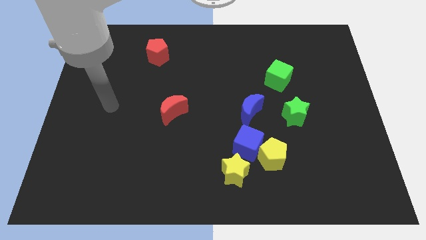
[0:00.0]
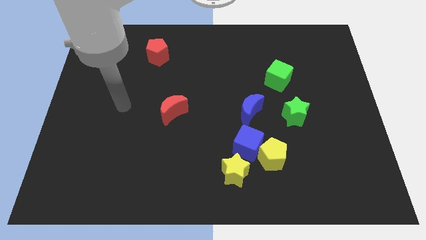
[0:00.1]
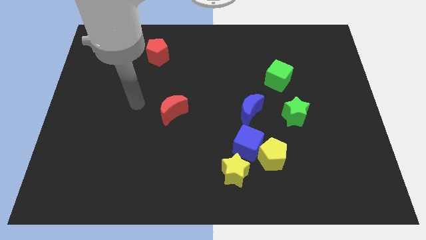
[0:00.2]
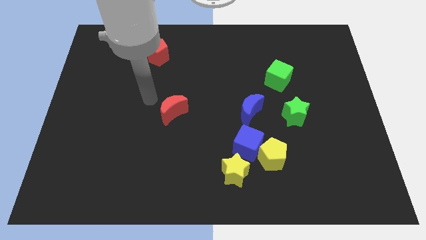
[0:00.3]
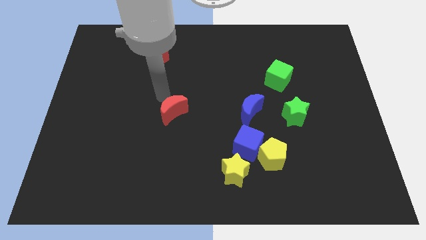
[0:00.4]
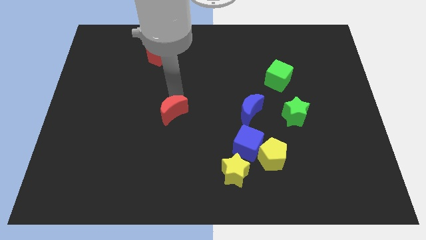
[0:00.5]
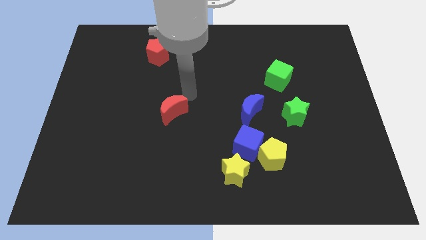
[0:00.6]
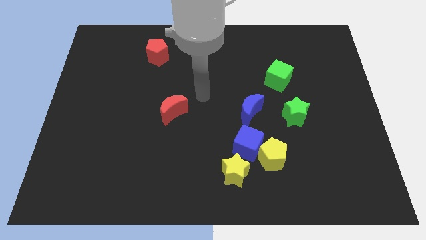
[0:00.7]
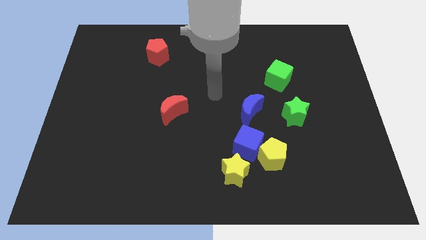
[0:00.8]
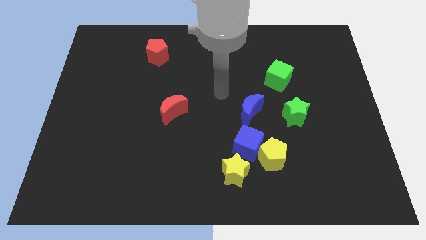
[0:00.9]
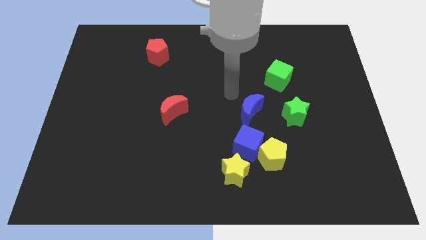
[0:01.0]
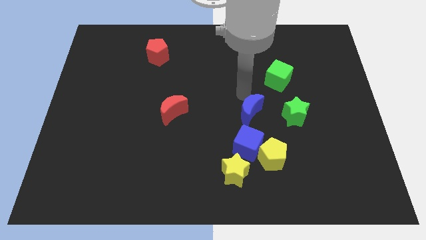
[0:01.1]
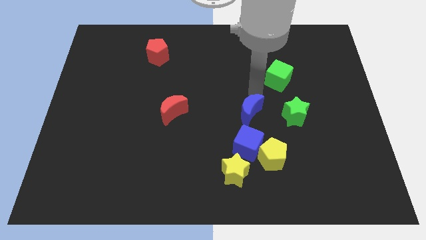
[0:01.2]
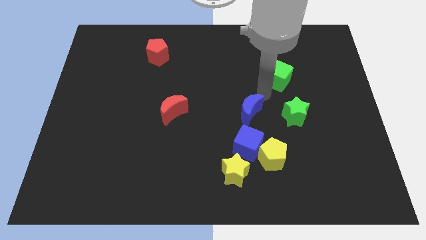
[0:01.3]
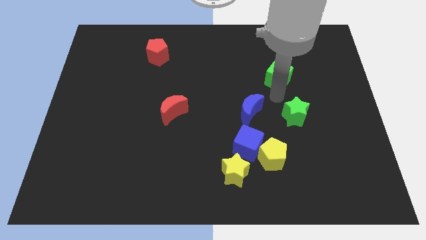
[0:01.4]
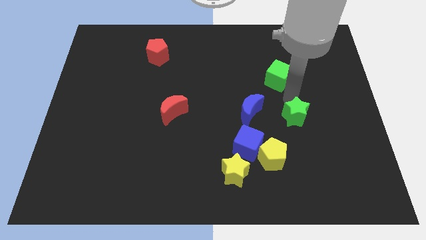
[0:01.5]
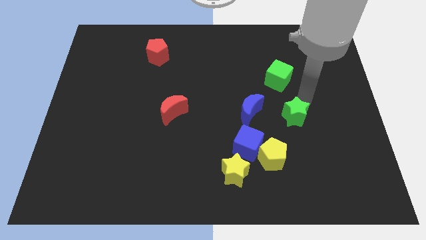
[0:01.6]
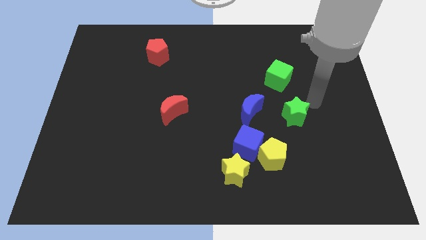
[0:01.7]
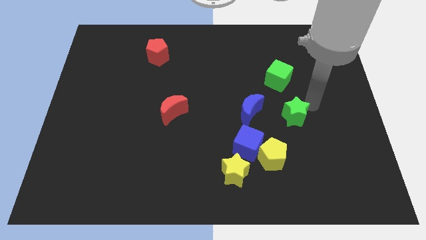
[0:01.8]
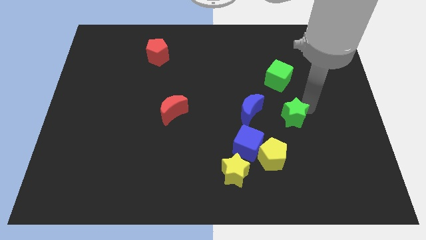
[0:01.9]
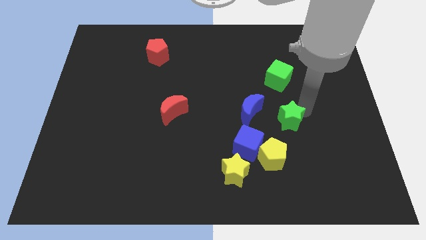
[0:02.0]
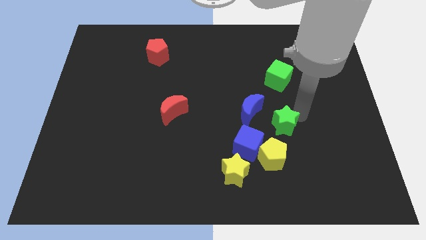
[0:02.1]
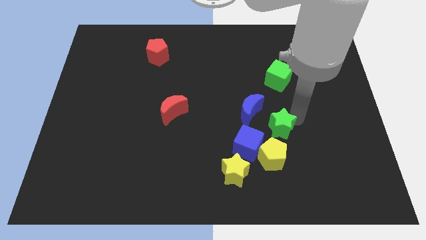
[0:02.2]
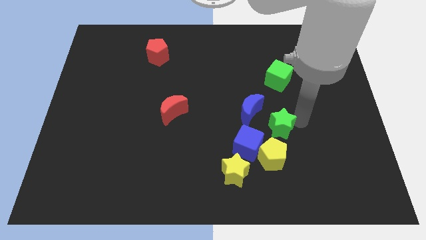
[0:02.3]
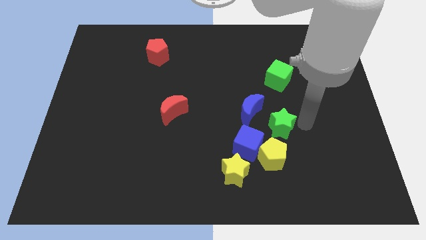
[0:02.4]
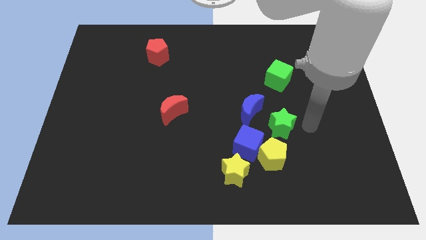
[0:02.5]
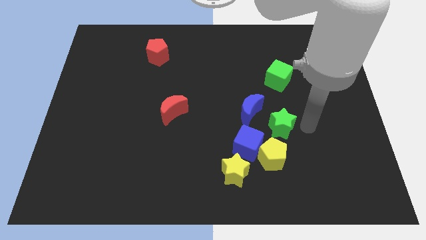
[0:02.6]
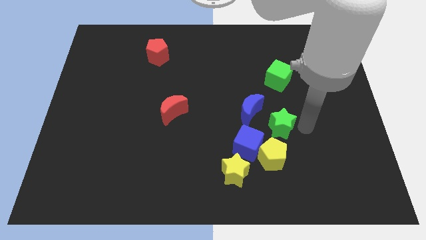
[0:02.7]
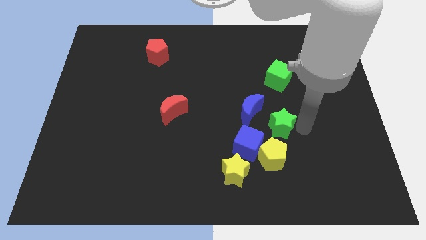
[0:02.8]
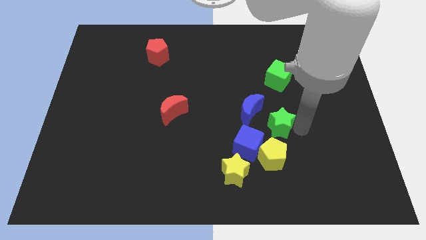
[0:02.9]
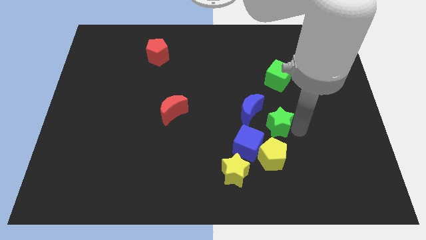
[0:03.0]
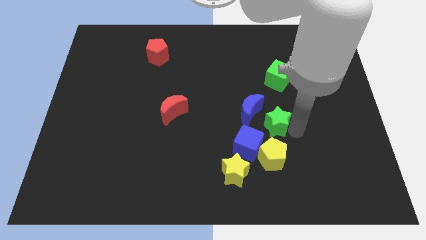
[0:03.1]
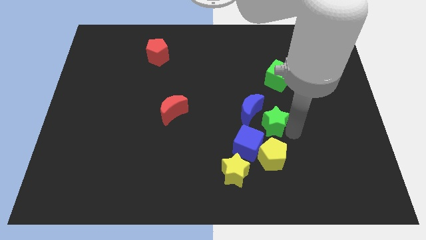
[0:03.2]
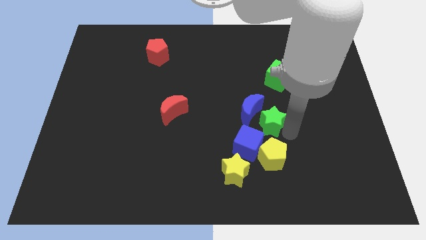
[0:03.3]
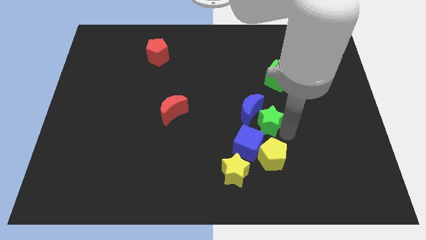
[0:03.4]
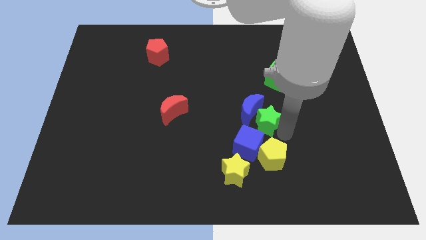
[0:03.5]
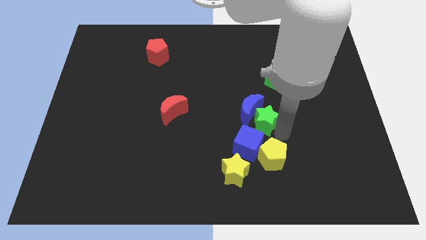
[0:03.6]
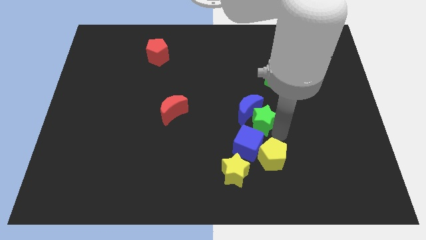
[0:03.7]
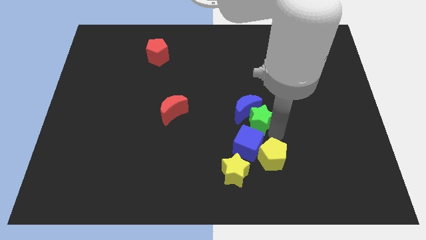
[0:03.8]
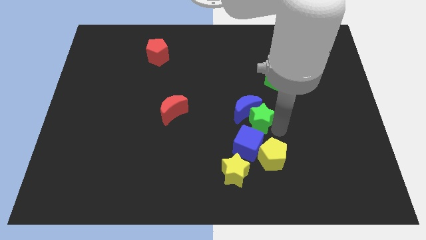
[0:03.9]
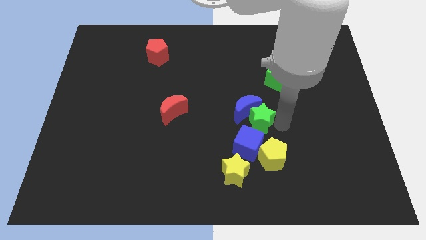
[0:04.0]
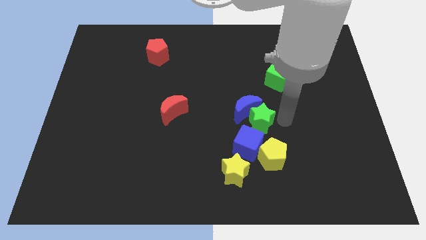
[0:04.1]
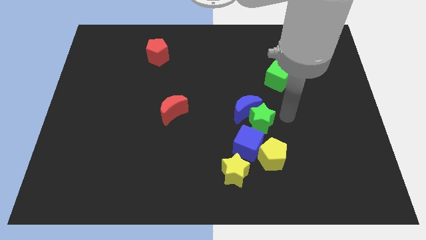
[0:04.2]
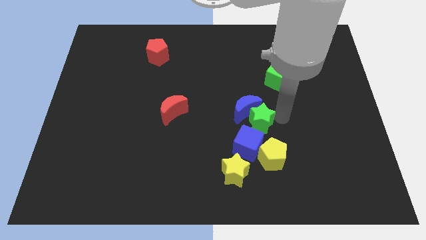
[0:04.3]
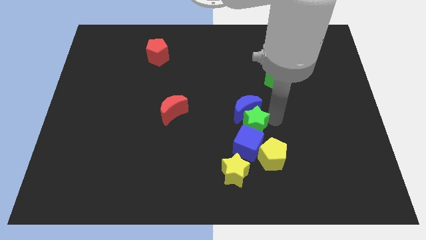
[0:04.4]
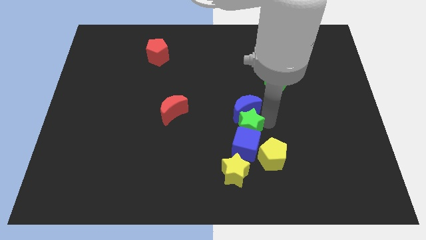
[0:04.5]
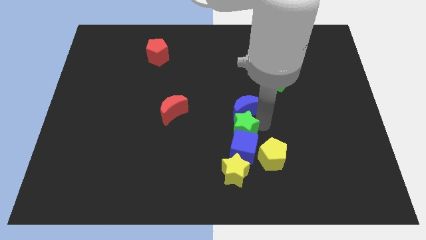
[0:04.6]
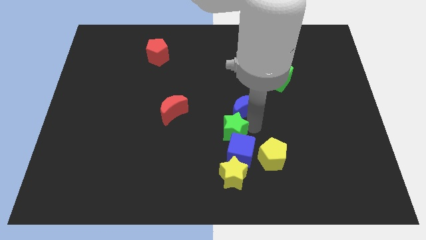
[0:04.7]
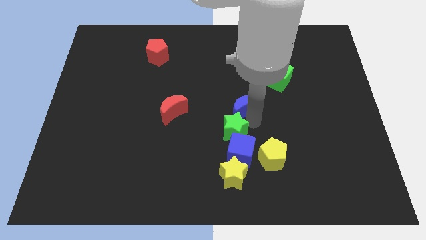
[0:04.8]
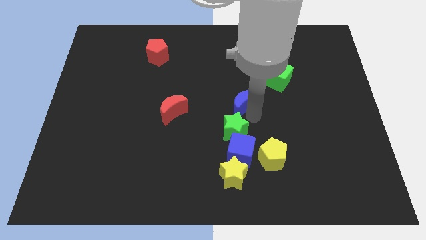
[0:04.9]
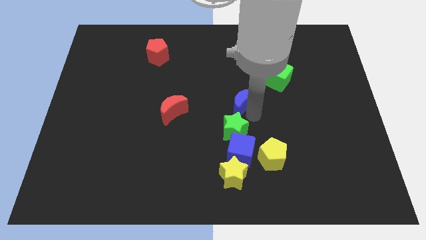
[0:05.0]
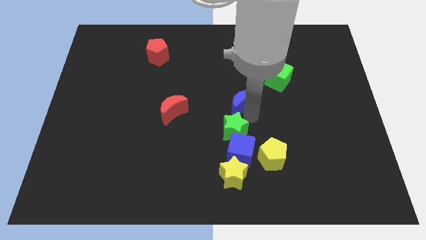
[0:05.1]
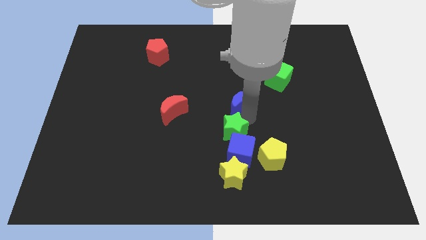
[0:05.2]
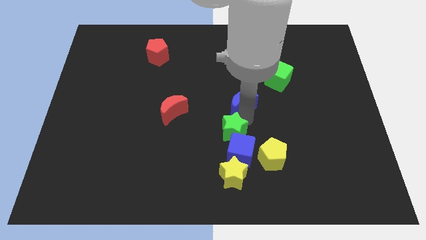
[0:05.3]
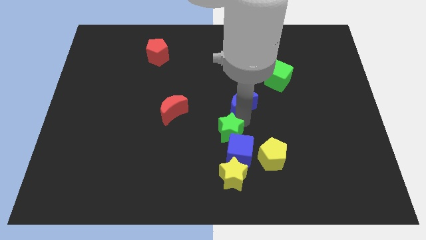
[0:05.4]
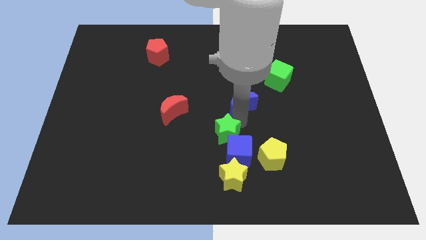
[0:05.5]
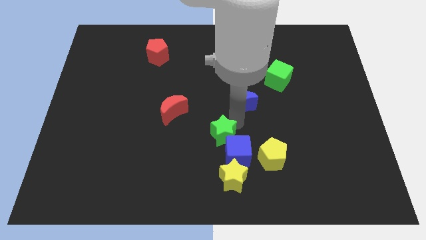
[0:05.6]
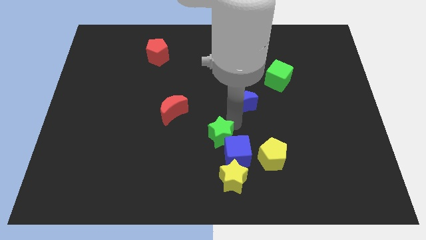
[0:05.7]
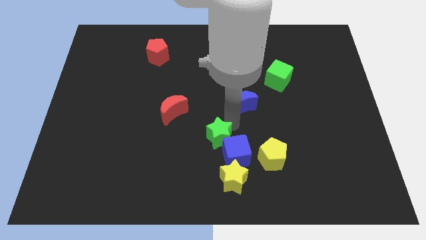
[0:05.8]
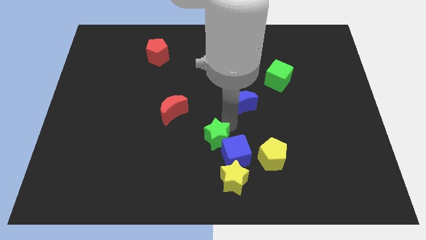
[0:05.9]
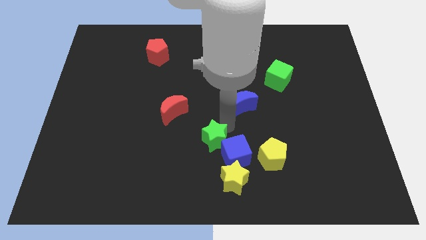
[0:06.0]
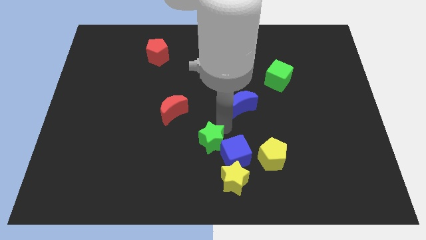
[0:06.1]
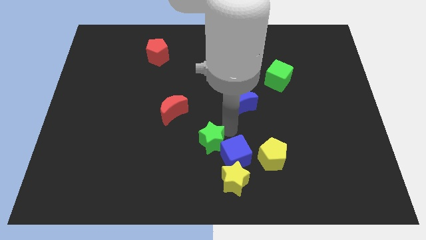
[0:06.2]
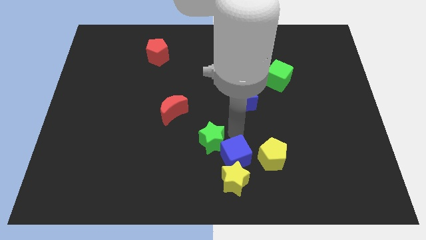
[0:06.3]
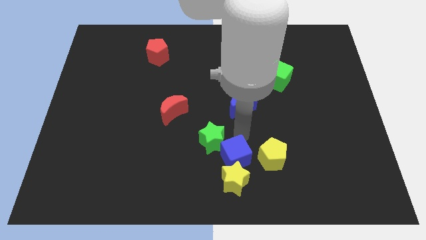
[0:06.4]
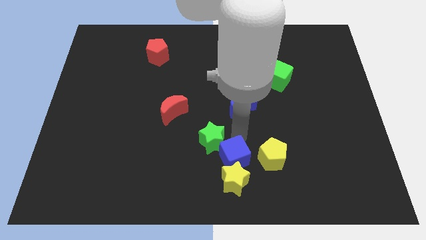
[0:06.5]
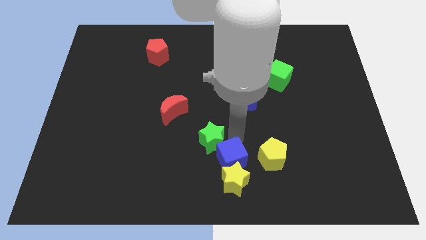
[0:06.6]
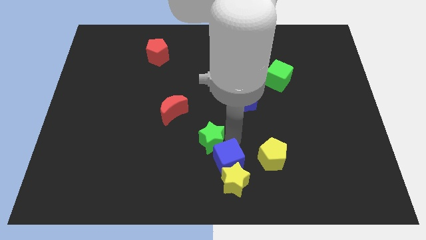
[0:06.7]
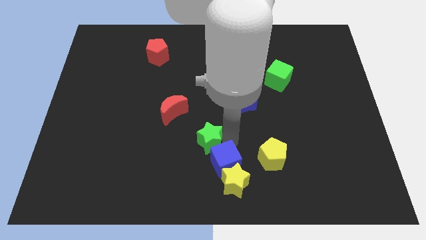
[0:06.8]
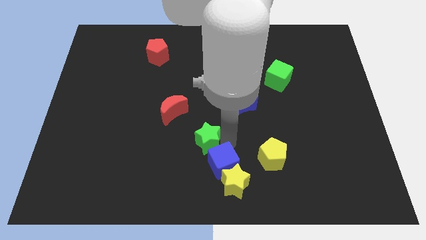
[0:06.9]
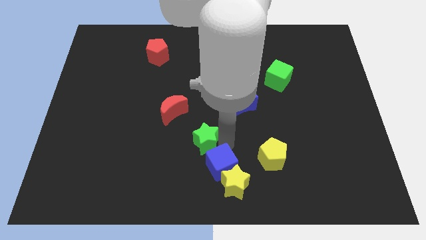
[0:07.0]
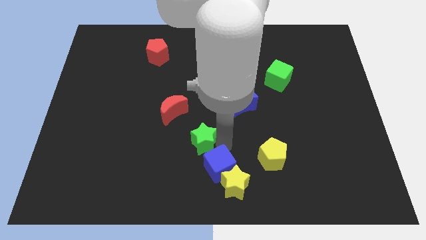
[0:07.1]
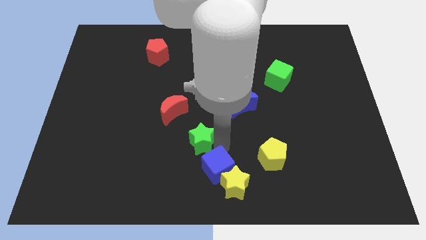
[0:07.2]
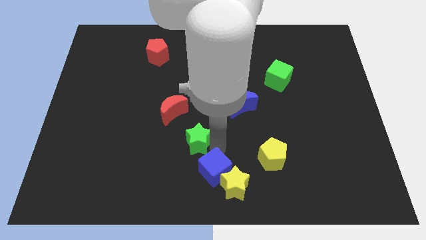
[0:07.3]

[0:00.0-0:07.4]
move the green star to the left

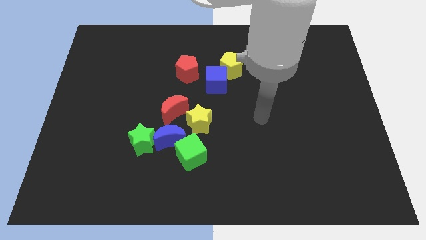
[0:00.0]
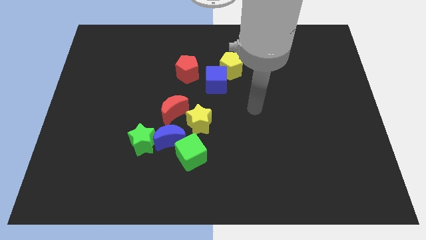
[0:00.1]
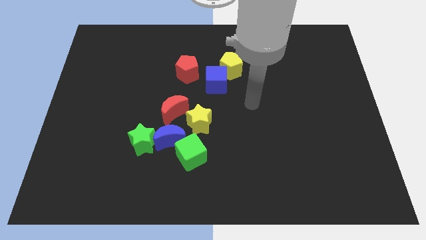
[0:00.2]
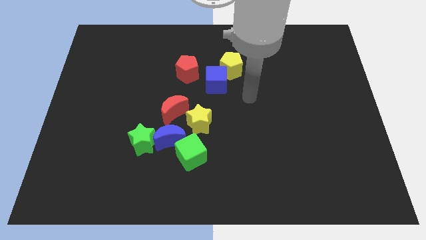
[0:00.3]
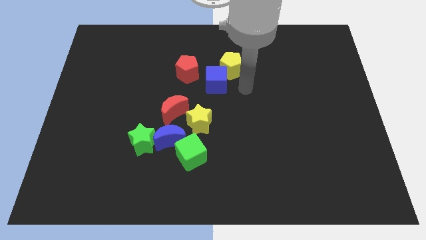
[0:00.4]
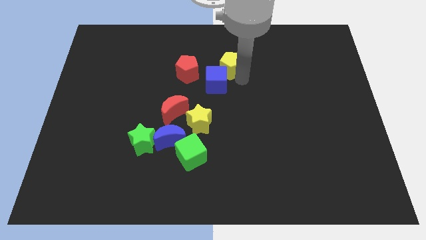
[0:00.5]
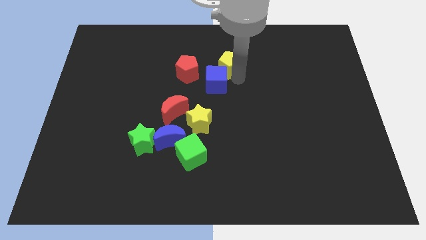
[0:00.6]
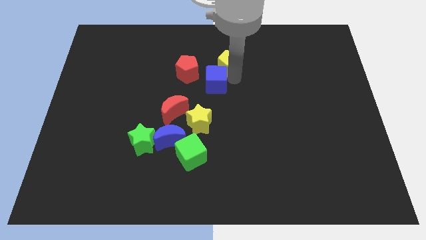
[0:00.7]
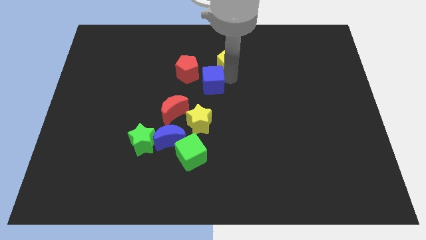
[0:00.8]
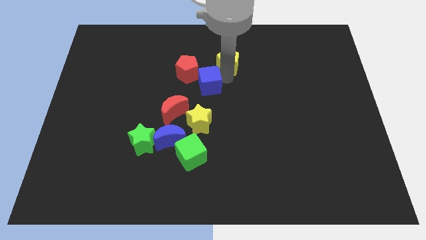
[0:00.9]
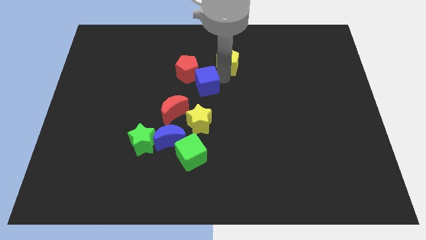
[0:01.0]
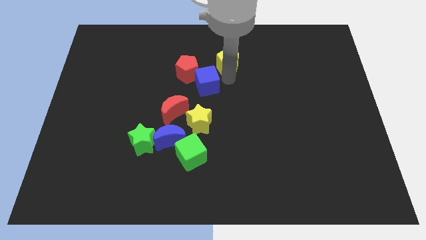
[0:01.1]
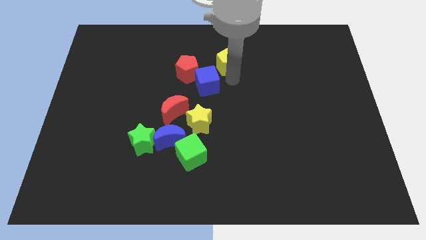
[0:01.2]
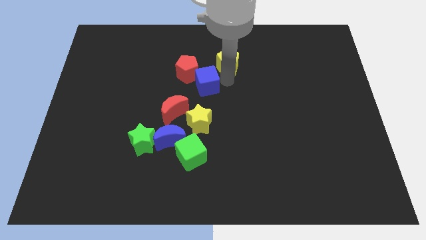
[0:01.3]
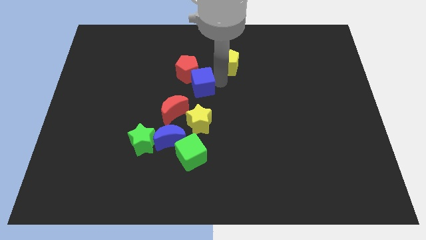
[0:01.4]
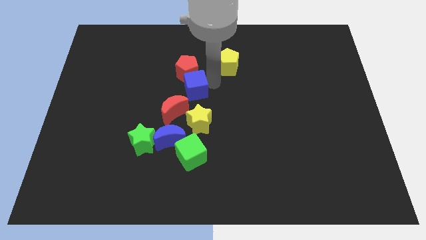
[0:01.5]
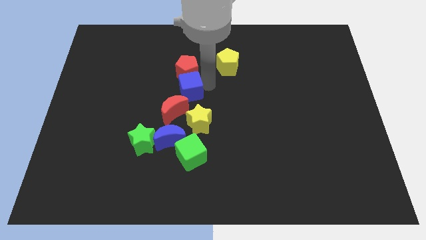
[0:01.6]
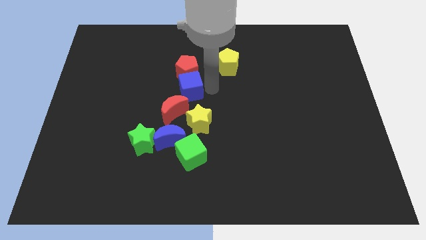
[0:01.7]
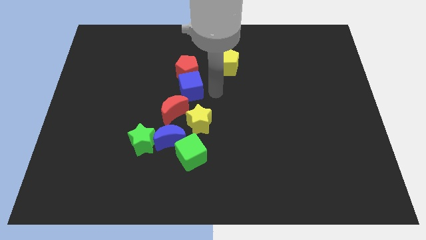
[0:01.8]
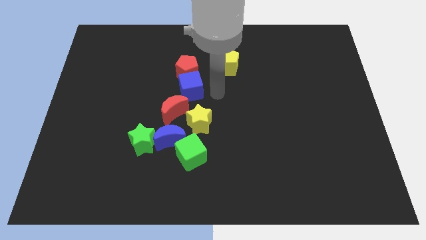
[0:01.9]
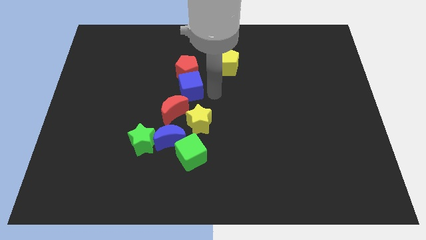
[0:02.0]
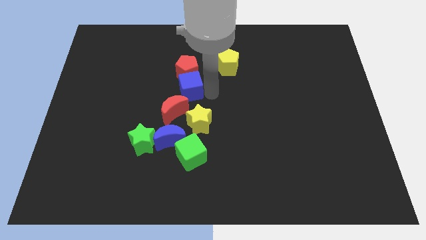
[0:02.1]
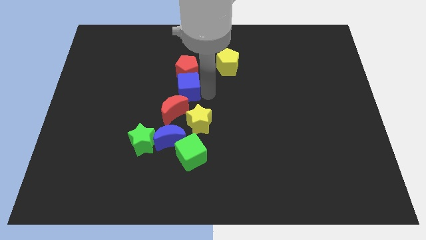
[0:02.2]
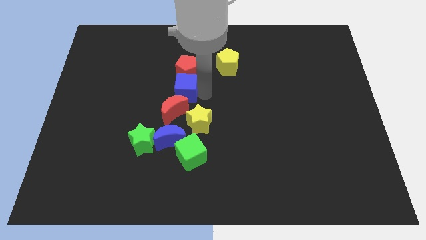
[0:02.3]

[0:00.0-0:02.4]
slide the blue cube left a little
